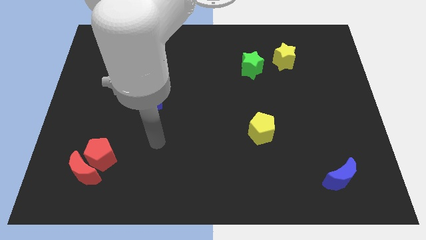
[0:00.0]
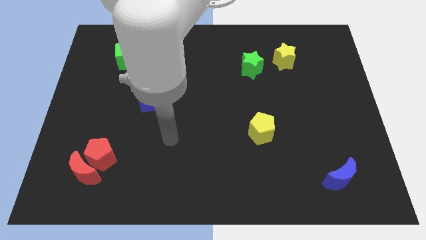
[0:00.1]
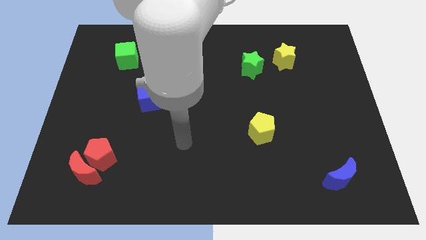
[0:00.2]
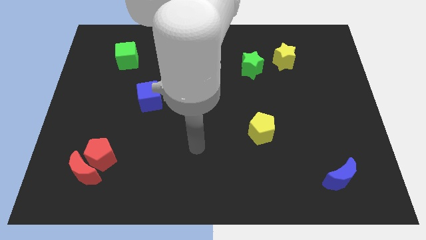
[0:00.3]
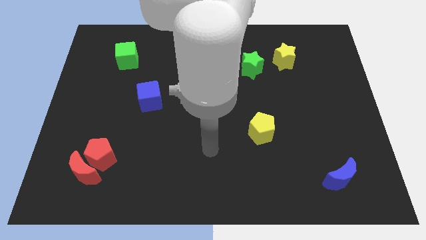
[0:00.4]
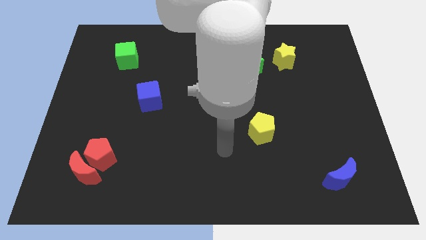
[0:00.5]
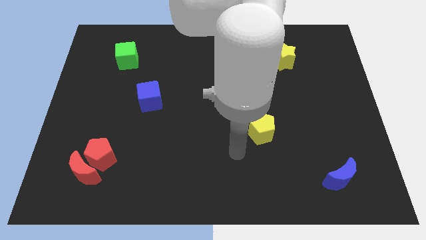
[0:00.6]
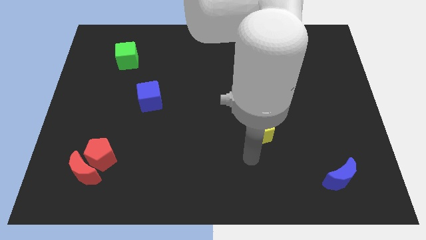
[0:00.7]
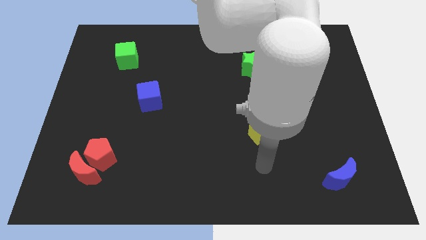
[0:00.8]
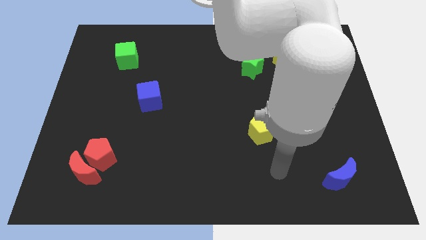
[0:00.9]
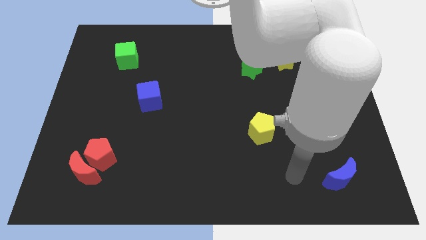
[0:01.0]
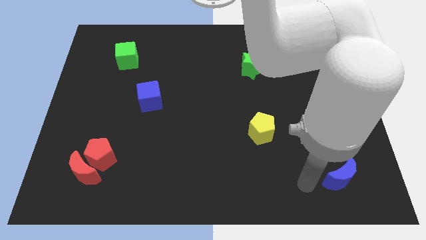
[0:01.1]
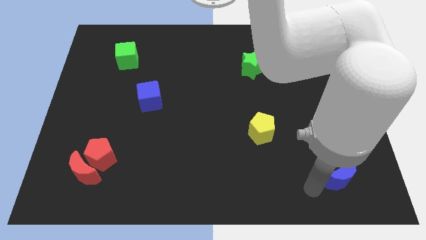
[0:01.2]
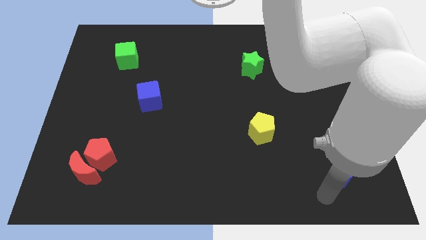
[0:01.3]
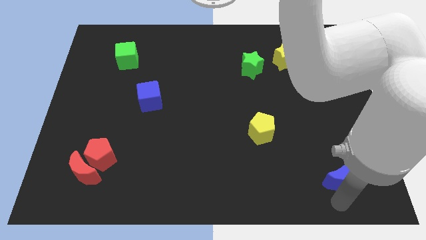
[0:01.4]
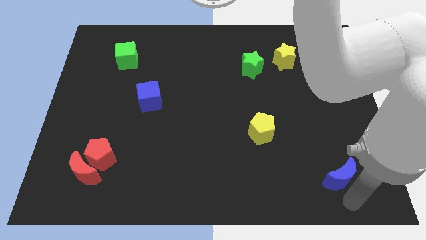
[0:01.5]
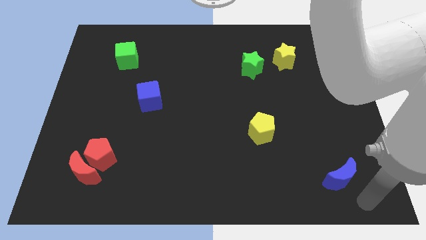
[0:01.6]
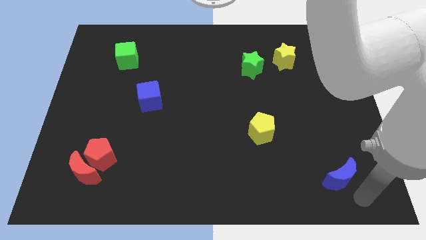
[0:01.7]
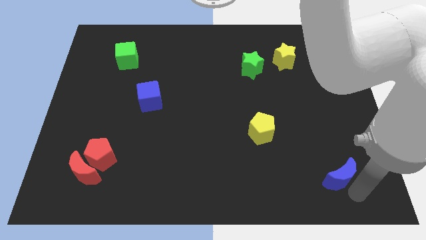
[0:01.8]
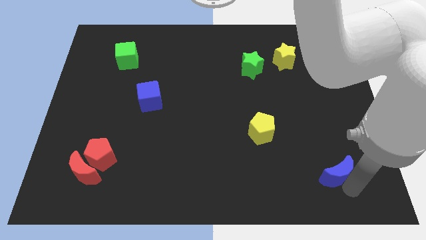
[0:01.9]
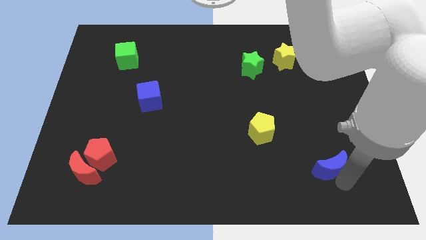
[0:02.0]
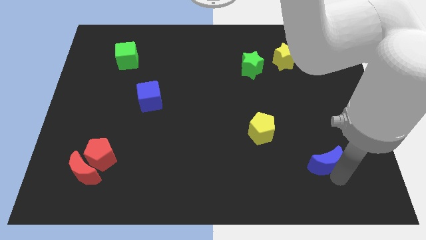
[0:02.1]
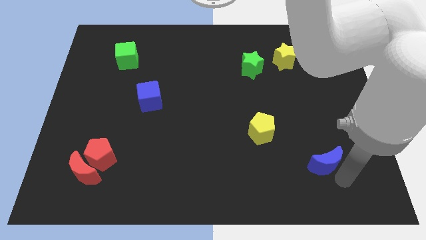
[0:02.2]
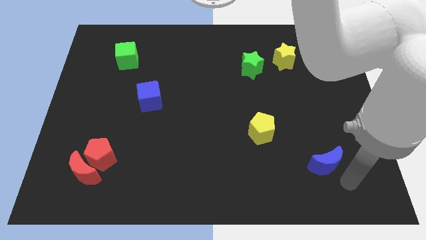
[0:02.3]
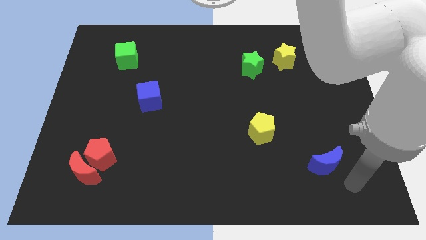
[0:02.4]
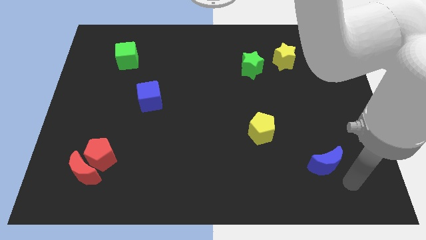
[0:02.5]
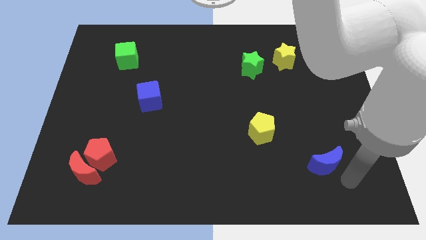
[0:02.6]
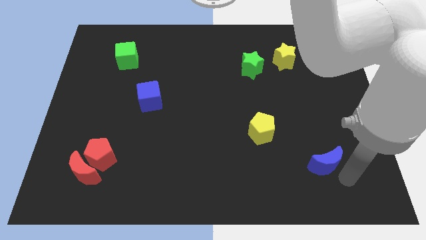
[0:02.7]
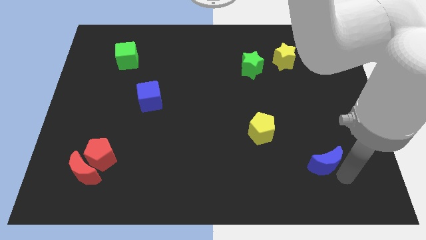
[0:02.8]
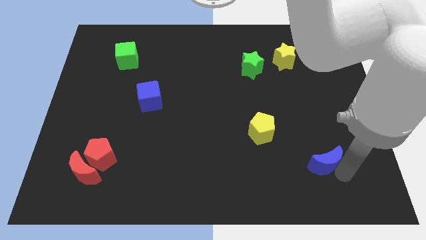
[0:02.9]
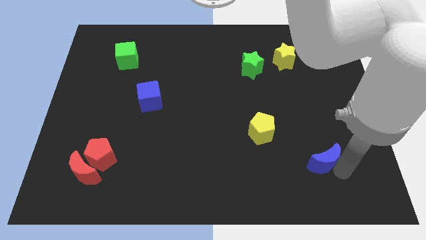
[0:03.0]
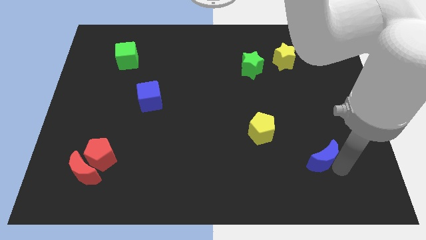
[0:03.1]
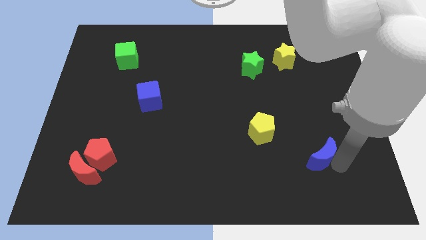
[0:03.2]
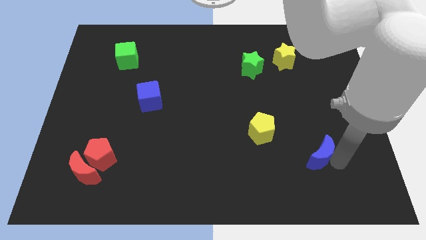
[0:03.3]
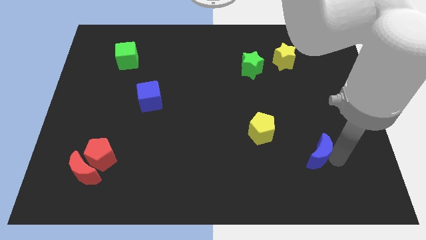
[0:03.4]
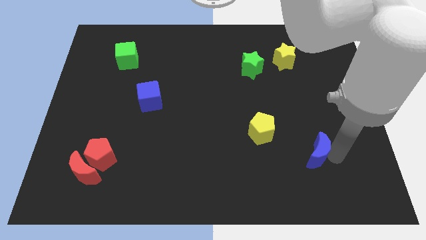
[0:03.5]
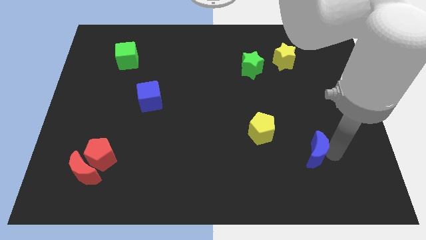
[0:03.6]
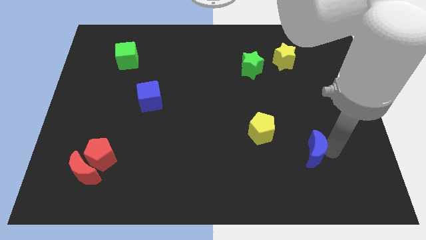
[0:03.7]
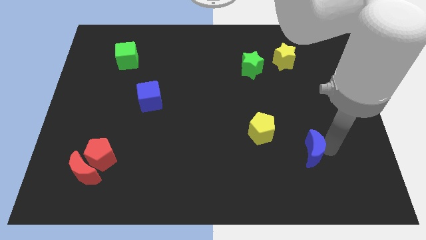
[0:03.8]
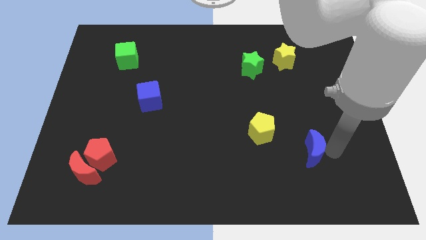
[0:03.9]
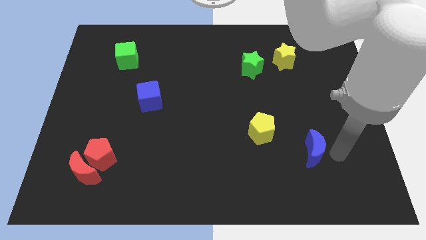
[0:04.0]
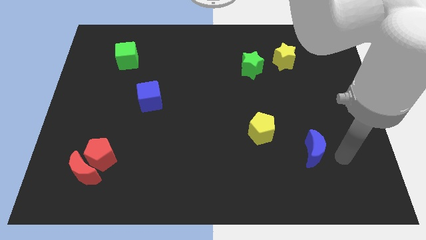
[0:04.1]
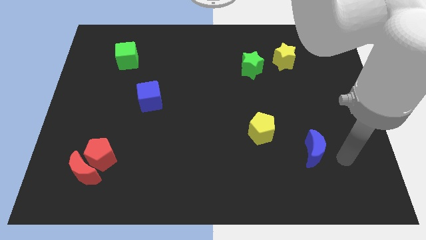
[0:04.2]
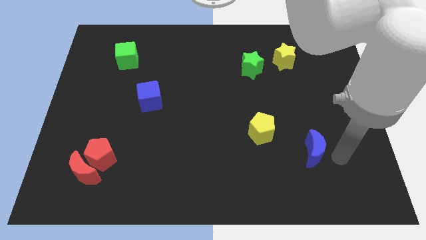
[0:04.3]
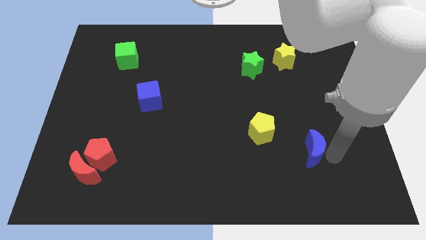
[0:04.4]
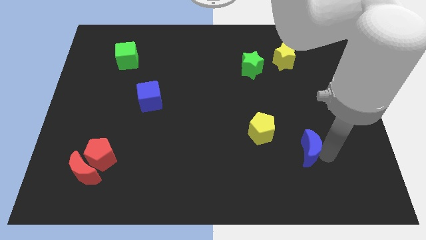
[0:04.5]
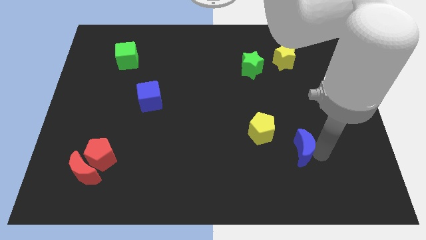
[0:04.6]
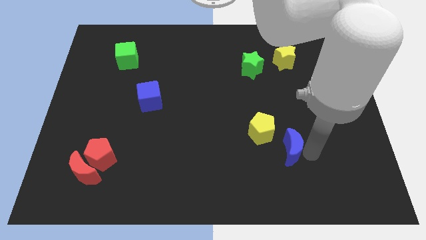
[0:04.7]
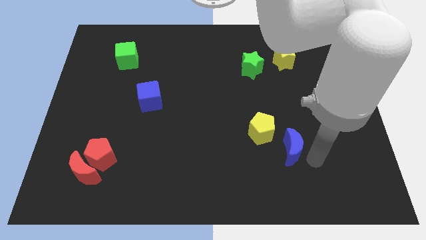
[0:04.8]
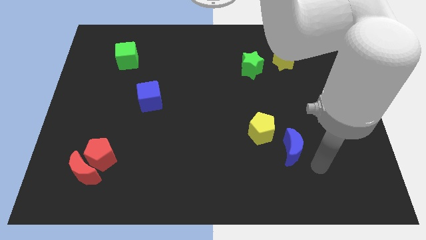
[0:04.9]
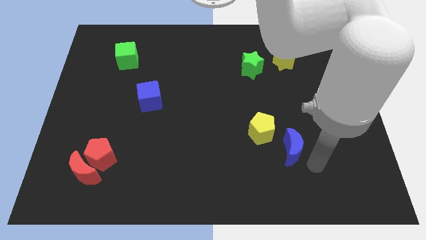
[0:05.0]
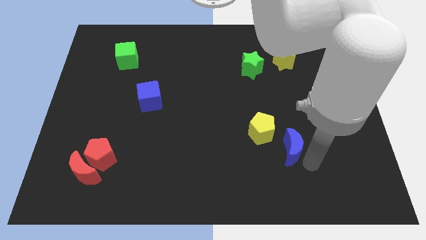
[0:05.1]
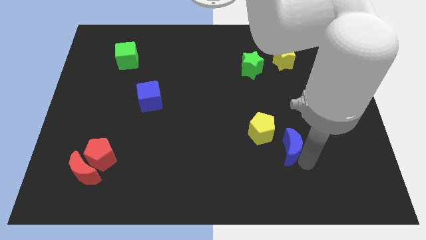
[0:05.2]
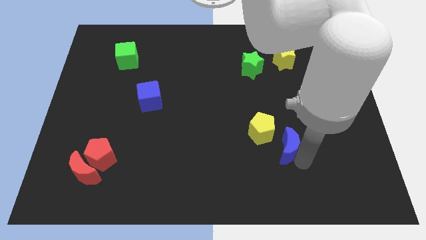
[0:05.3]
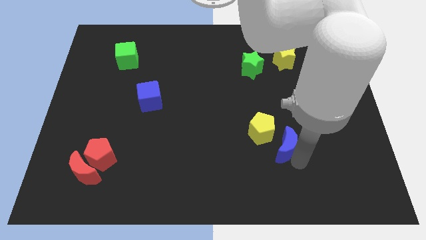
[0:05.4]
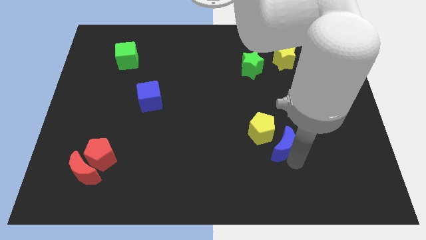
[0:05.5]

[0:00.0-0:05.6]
put the blue moon close to the yellow pentagon
